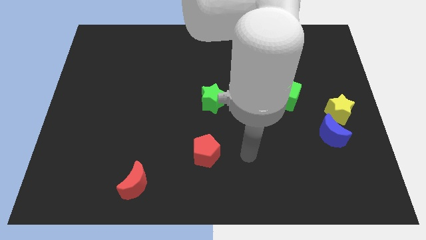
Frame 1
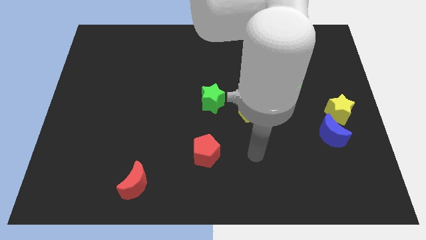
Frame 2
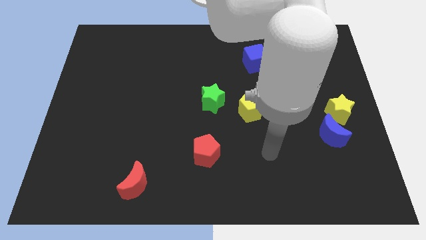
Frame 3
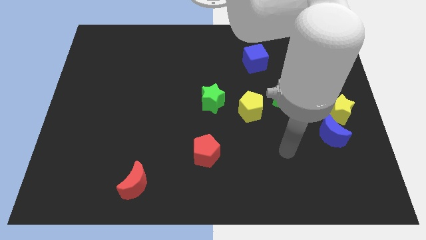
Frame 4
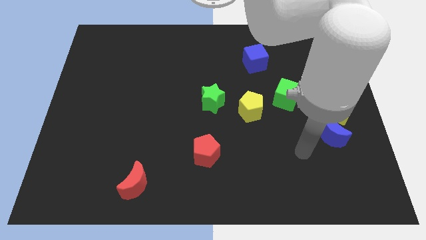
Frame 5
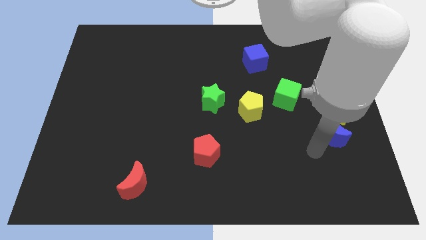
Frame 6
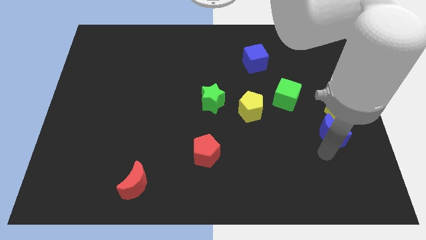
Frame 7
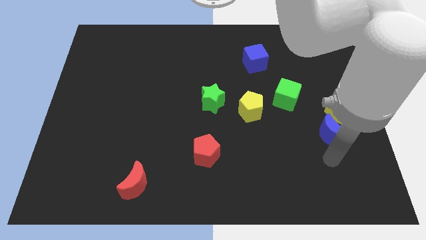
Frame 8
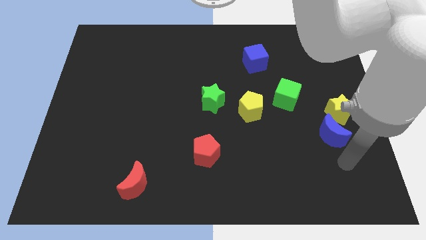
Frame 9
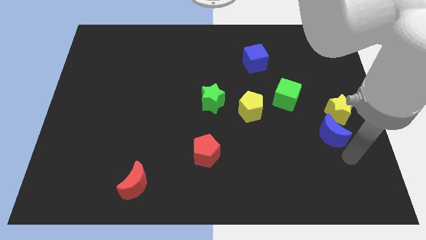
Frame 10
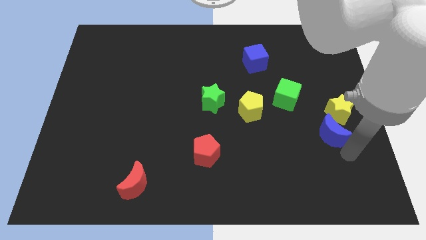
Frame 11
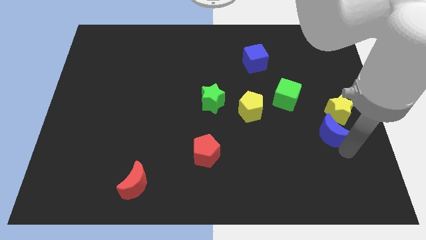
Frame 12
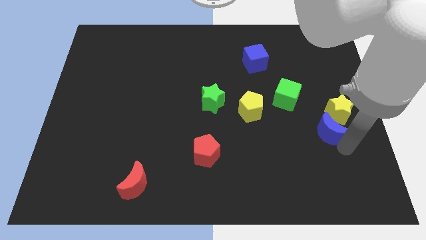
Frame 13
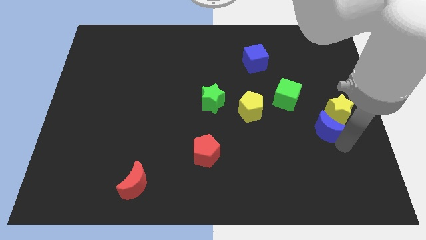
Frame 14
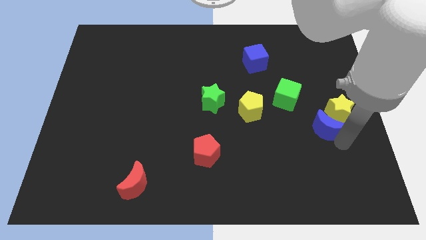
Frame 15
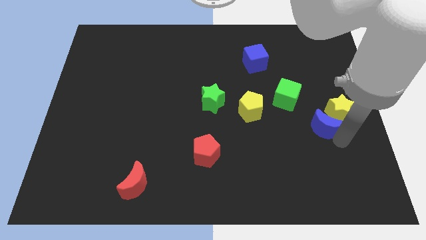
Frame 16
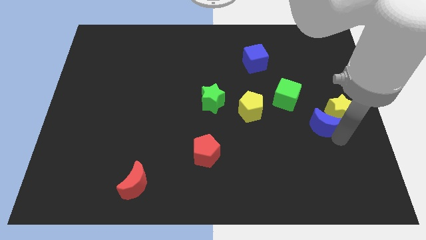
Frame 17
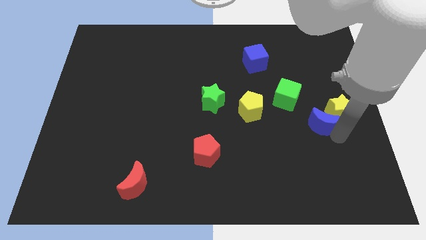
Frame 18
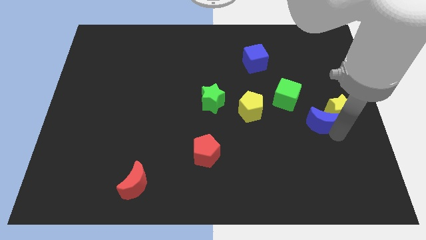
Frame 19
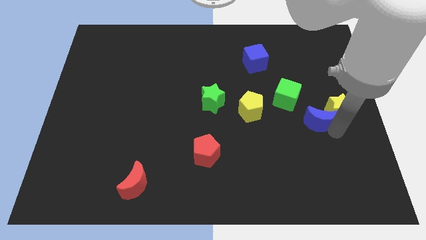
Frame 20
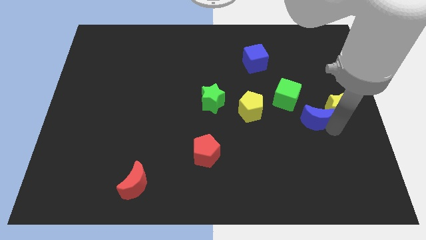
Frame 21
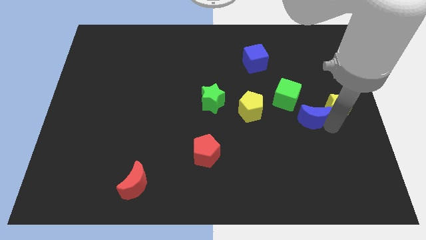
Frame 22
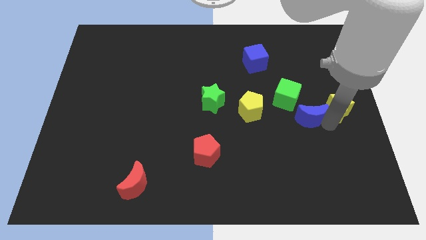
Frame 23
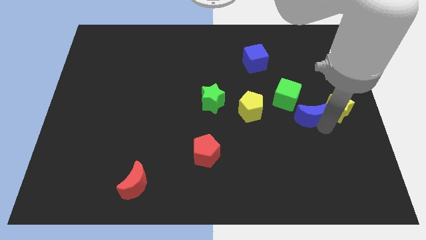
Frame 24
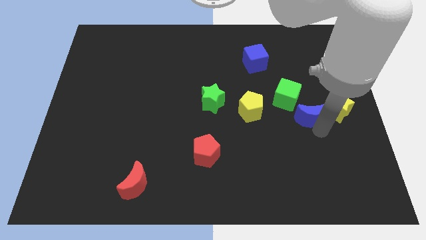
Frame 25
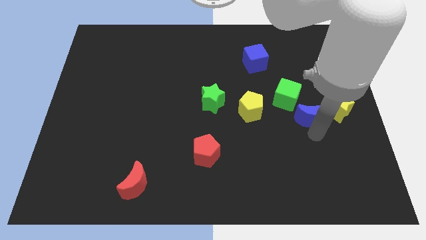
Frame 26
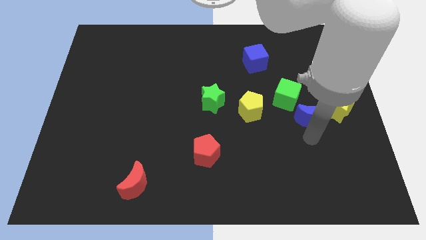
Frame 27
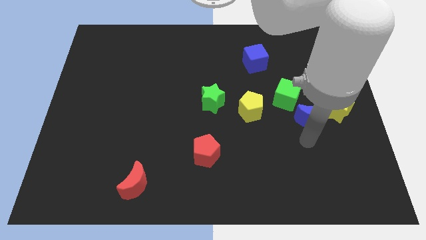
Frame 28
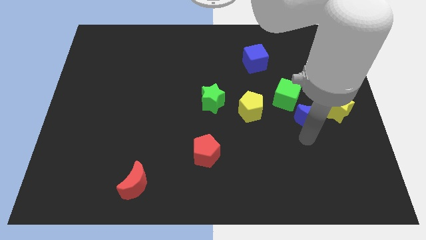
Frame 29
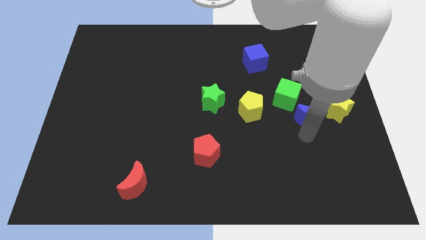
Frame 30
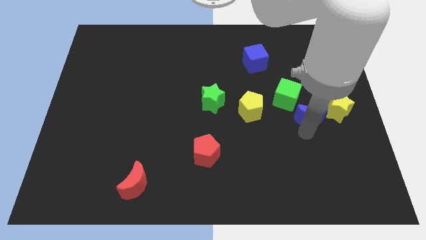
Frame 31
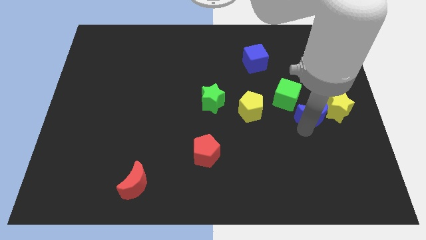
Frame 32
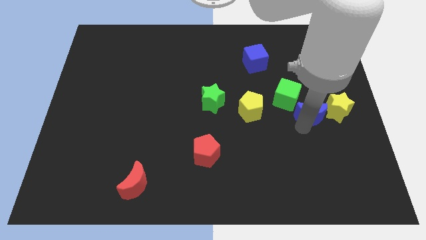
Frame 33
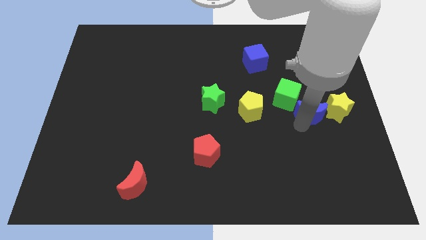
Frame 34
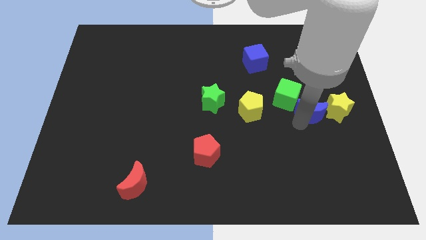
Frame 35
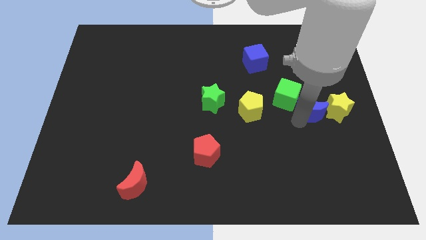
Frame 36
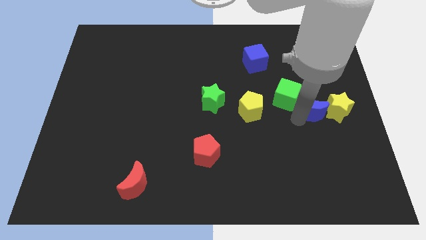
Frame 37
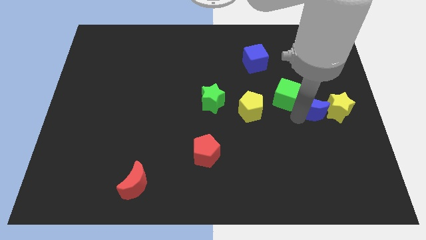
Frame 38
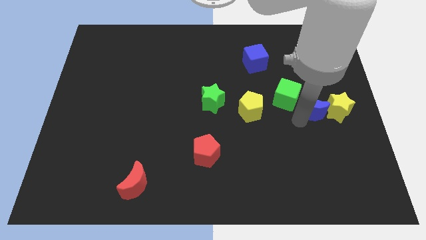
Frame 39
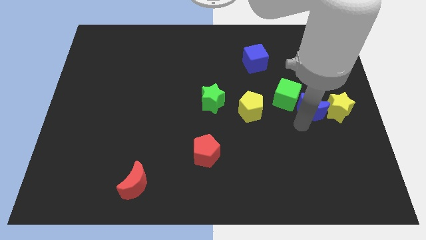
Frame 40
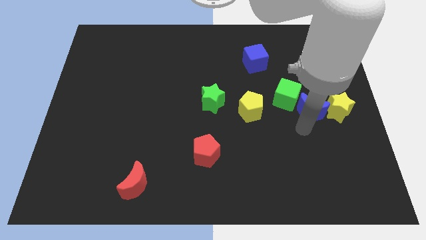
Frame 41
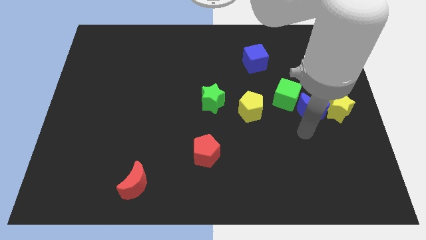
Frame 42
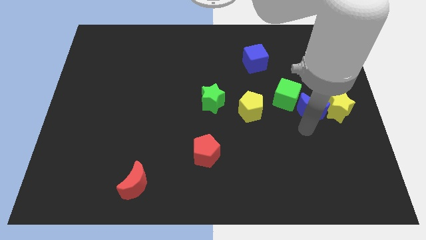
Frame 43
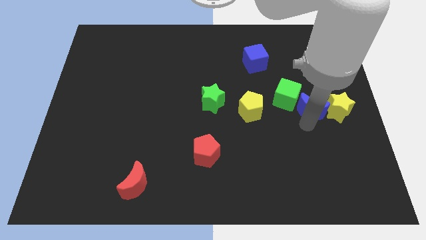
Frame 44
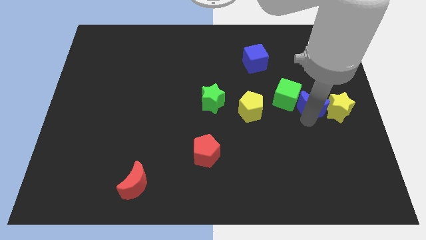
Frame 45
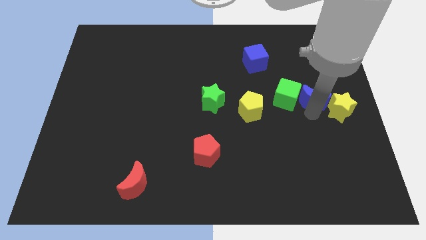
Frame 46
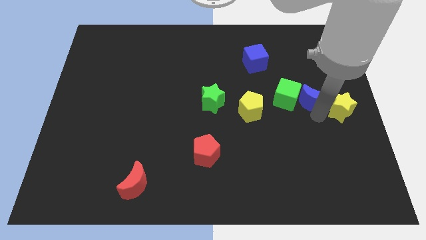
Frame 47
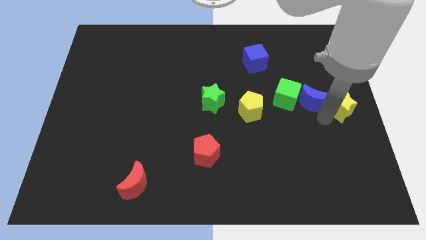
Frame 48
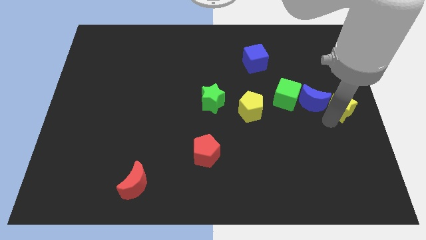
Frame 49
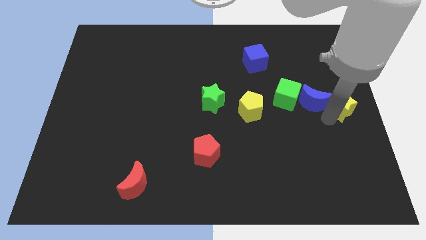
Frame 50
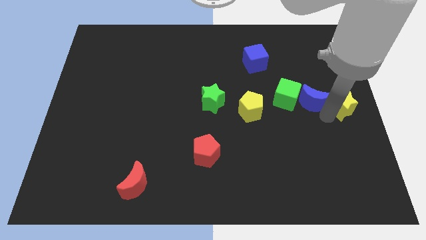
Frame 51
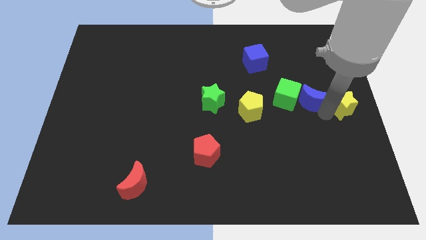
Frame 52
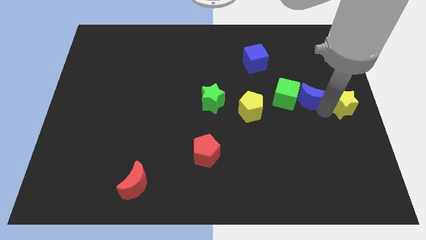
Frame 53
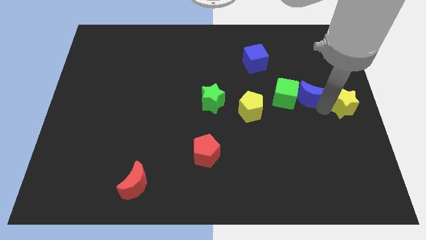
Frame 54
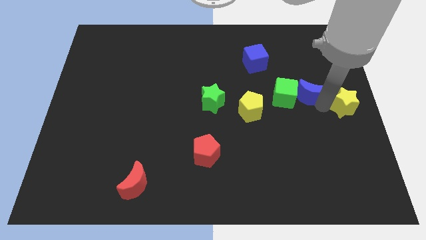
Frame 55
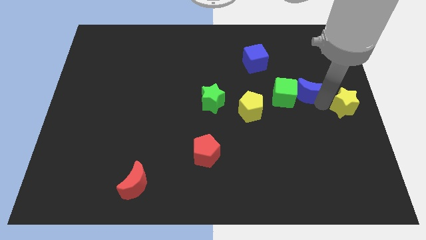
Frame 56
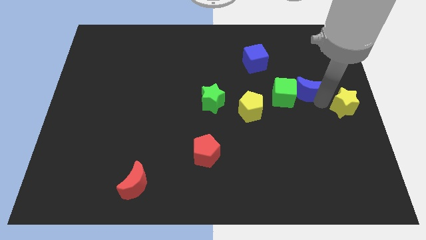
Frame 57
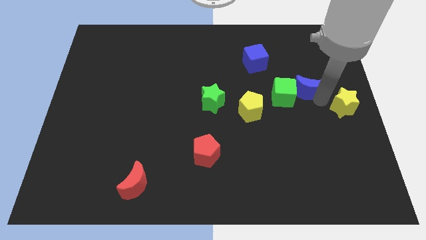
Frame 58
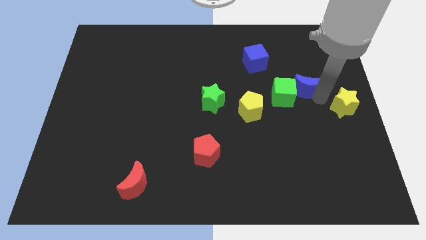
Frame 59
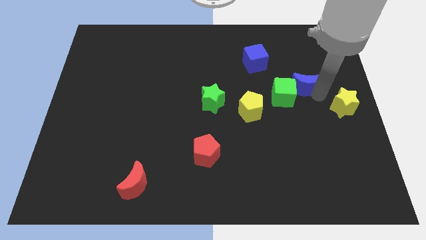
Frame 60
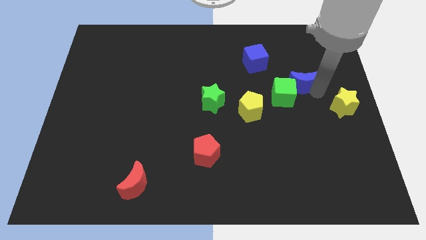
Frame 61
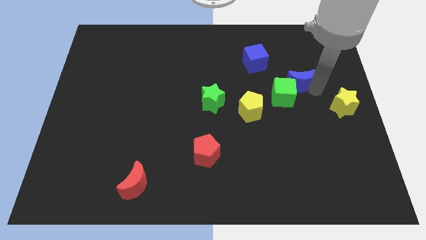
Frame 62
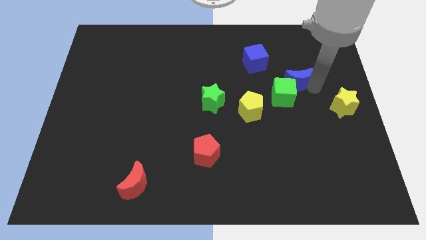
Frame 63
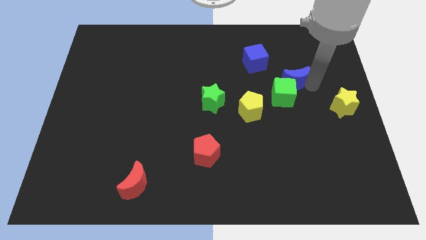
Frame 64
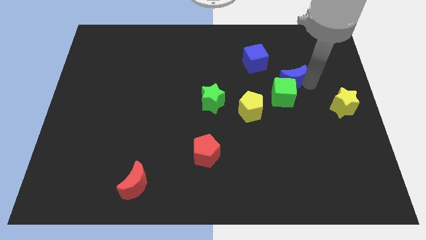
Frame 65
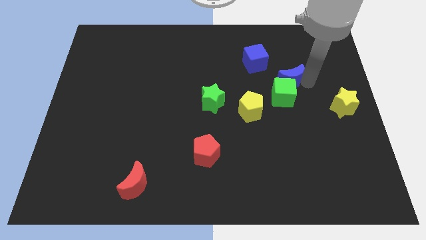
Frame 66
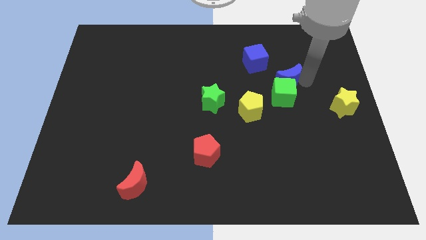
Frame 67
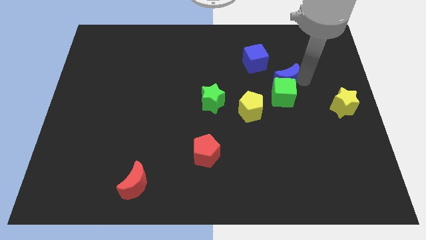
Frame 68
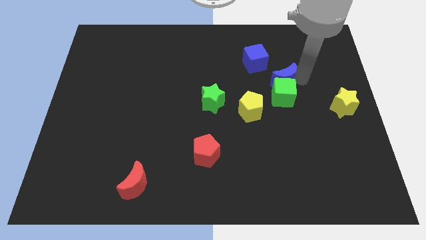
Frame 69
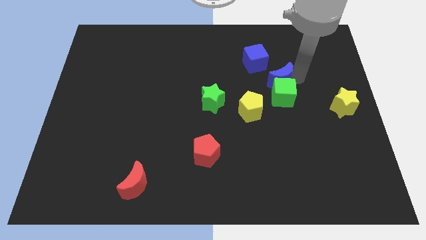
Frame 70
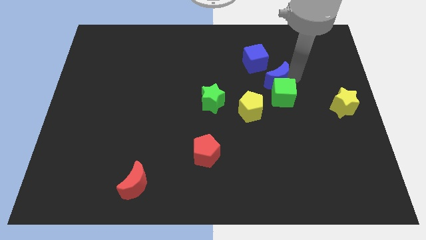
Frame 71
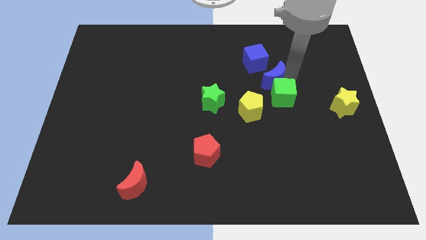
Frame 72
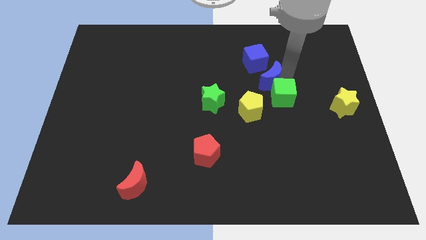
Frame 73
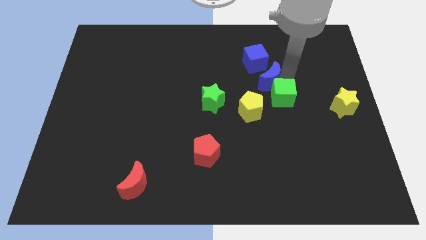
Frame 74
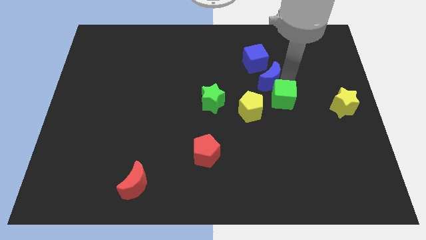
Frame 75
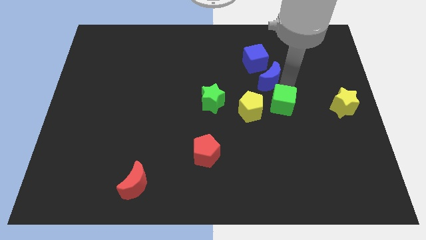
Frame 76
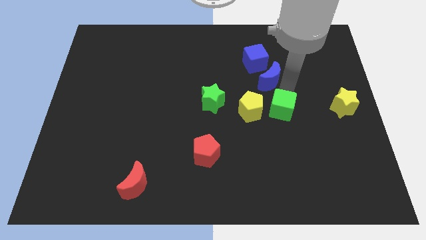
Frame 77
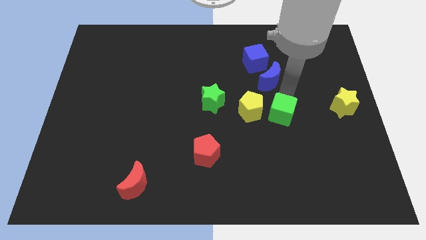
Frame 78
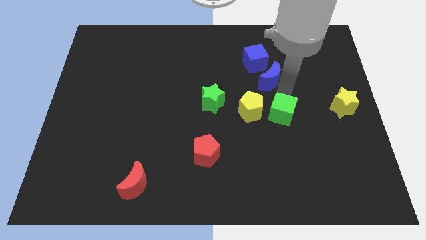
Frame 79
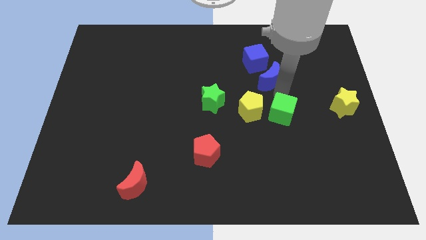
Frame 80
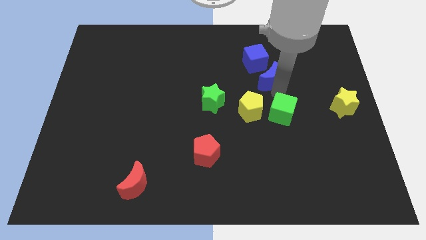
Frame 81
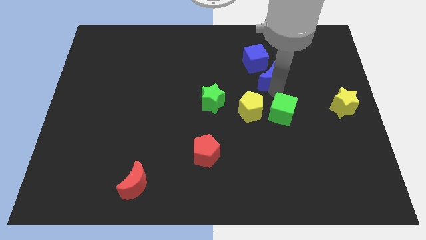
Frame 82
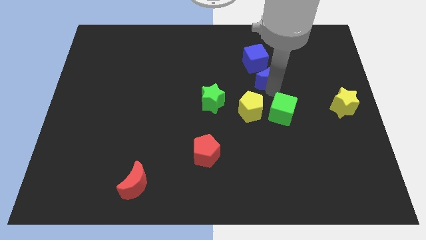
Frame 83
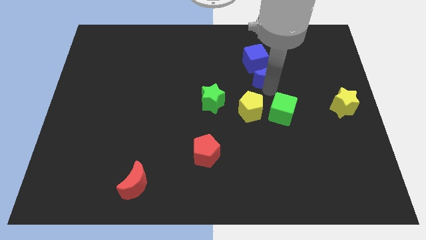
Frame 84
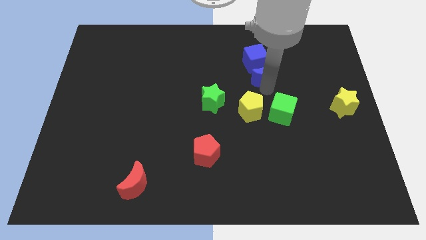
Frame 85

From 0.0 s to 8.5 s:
put the blue moon next to the blue cube
